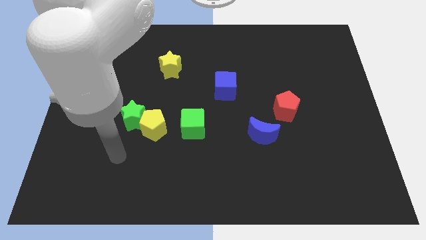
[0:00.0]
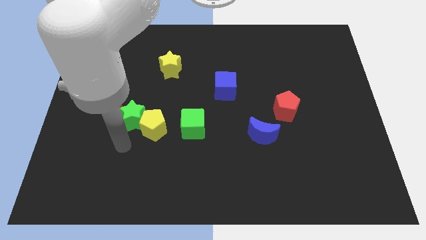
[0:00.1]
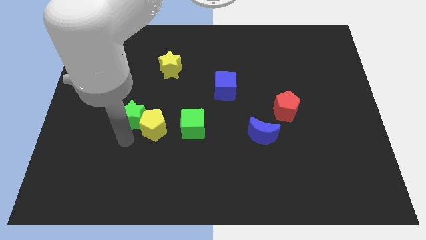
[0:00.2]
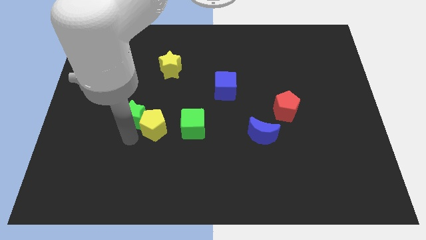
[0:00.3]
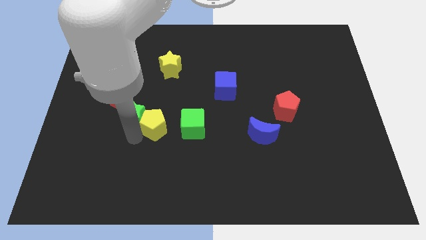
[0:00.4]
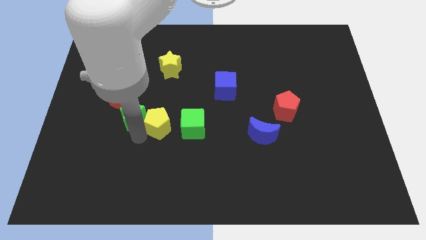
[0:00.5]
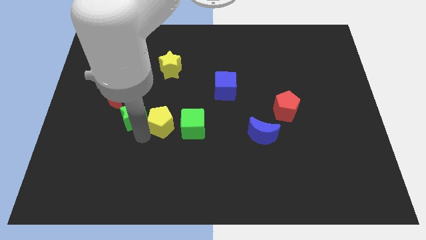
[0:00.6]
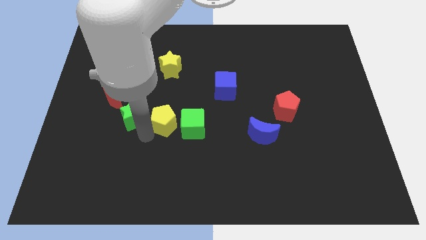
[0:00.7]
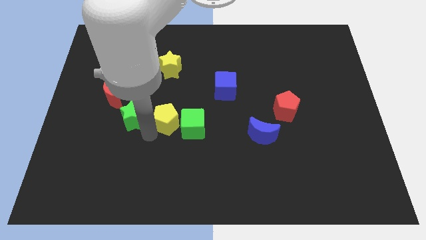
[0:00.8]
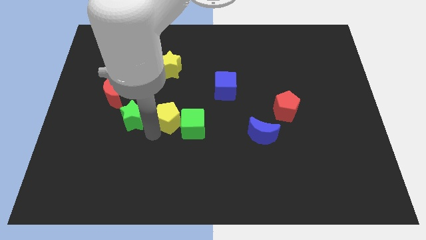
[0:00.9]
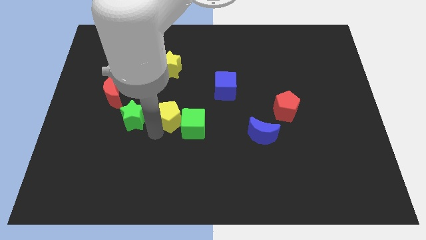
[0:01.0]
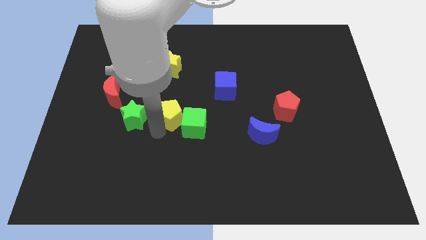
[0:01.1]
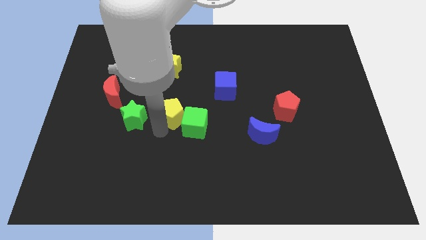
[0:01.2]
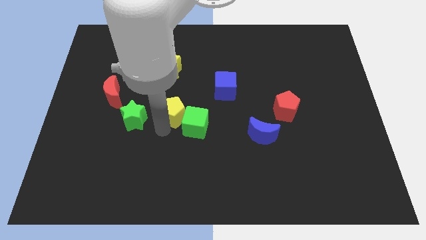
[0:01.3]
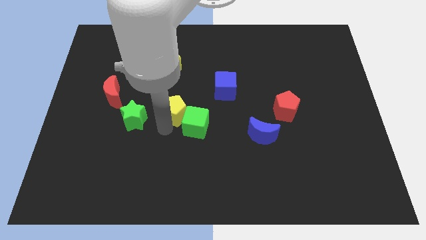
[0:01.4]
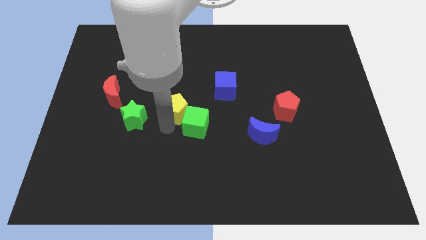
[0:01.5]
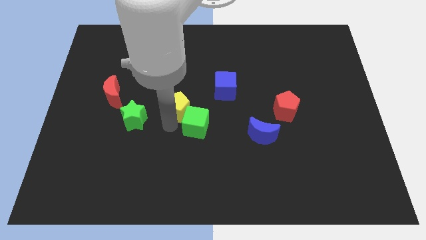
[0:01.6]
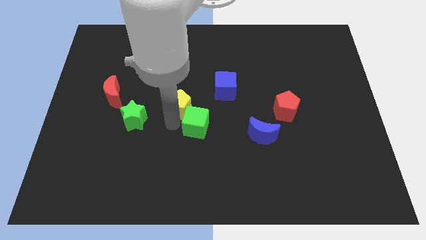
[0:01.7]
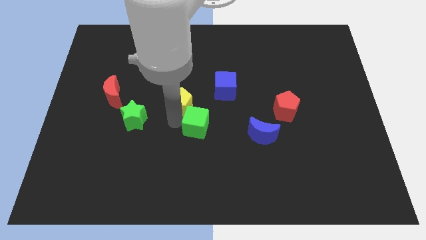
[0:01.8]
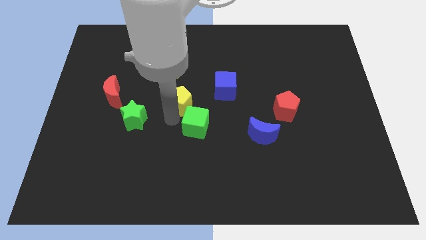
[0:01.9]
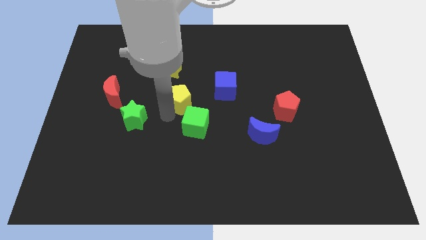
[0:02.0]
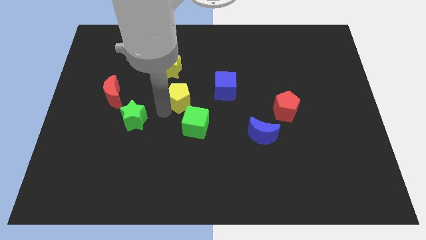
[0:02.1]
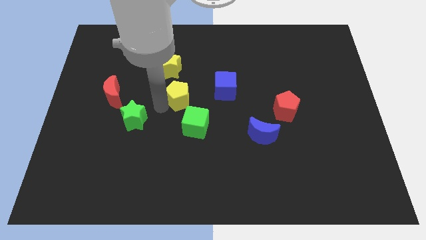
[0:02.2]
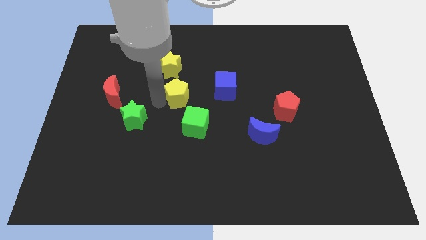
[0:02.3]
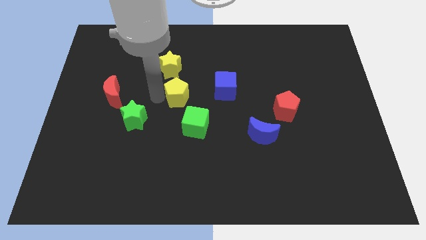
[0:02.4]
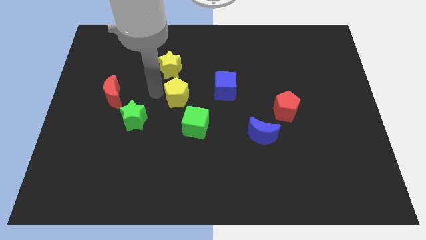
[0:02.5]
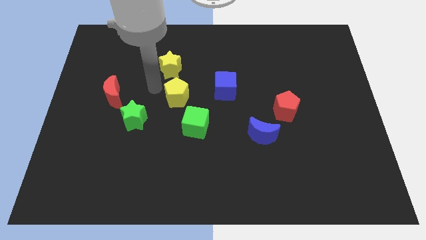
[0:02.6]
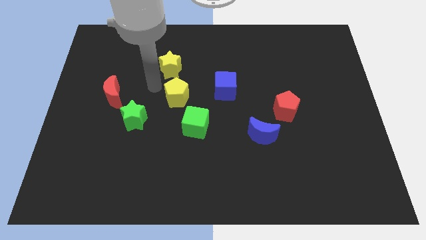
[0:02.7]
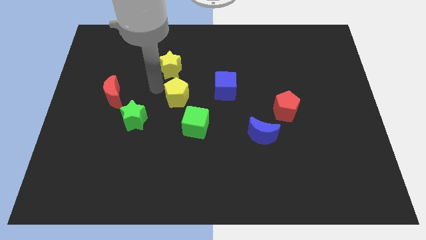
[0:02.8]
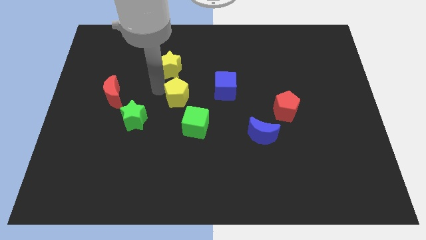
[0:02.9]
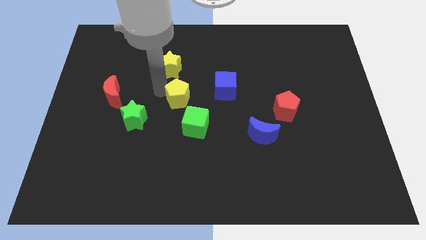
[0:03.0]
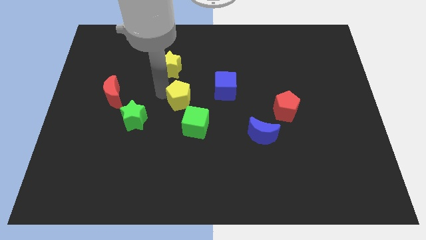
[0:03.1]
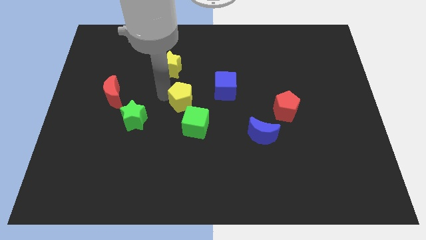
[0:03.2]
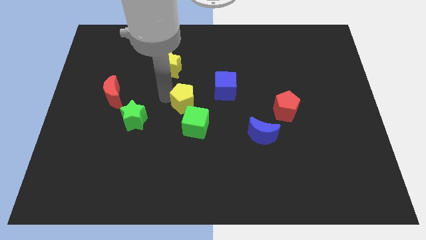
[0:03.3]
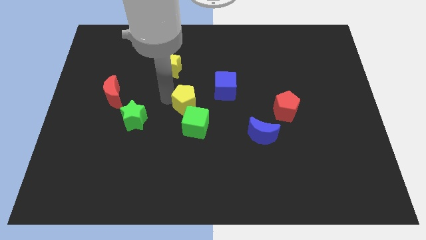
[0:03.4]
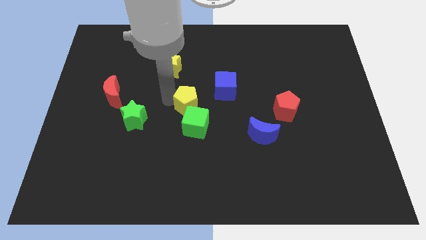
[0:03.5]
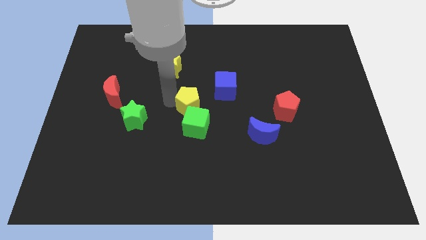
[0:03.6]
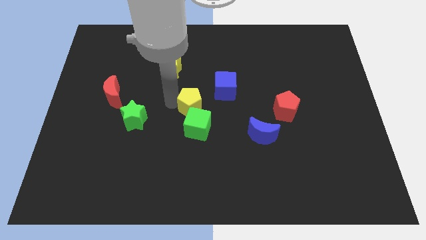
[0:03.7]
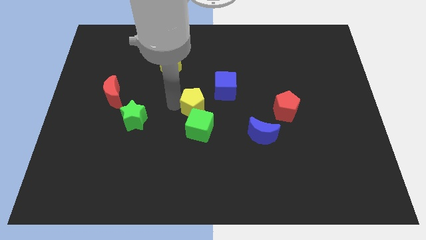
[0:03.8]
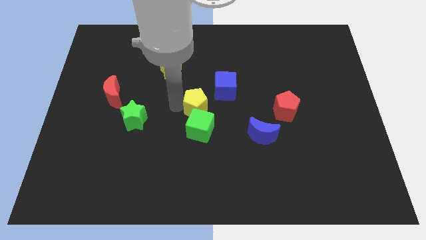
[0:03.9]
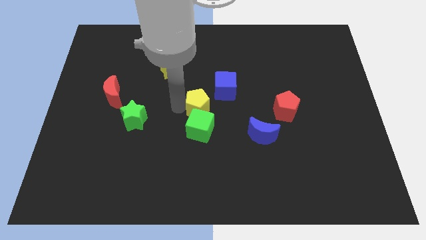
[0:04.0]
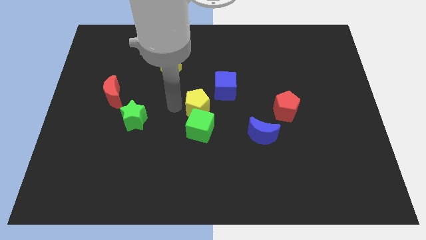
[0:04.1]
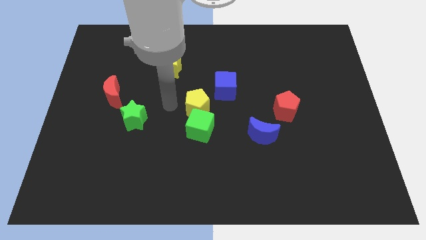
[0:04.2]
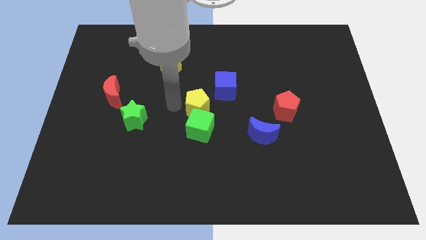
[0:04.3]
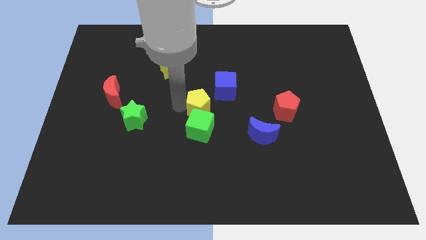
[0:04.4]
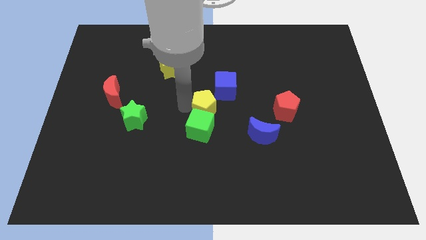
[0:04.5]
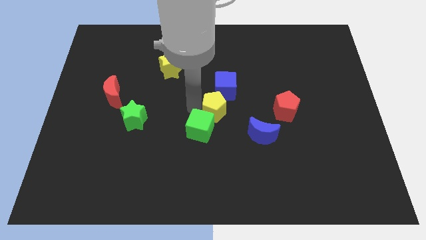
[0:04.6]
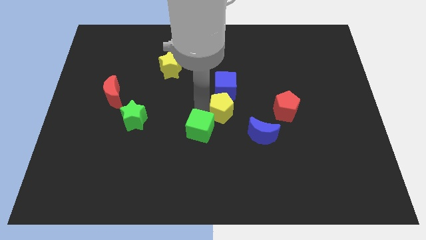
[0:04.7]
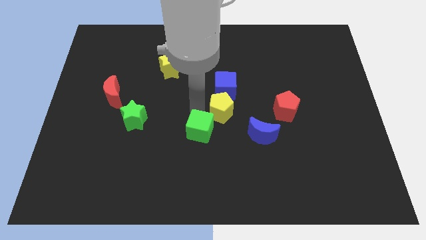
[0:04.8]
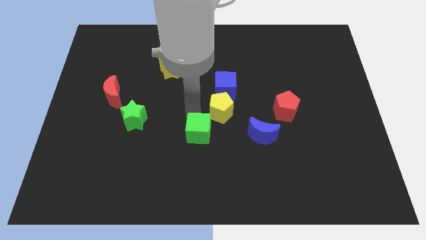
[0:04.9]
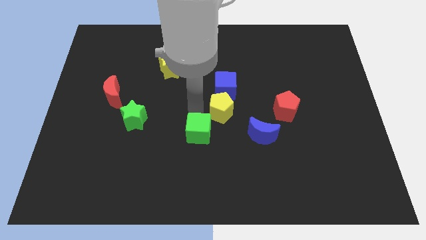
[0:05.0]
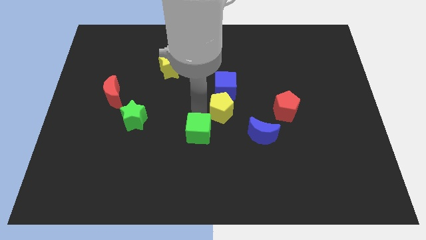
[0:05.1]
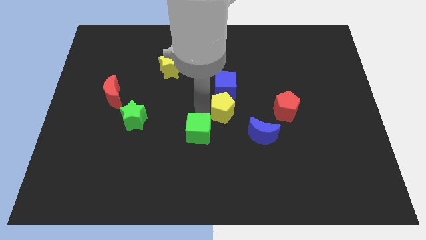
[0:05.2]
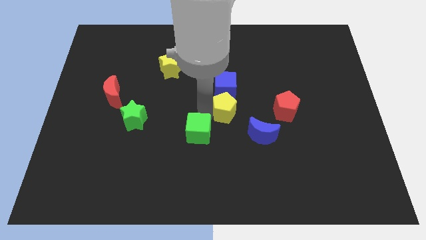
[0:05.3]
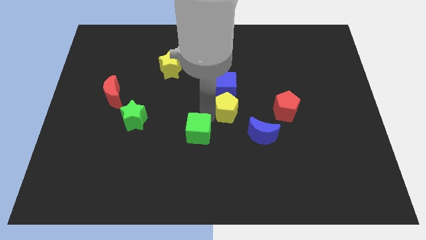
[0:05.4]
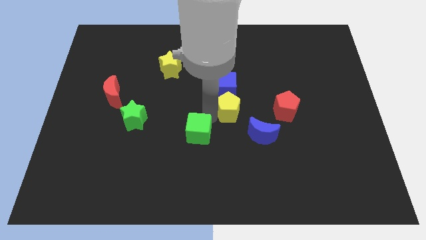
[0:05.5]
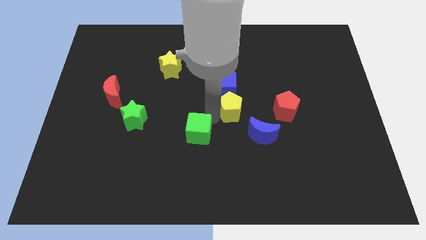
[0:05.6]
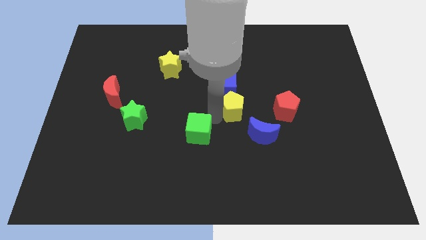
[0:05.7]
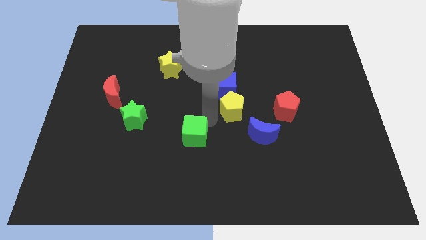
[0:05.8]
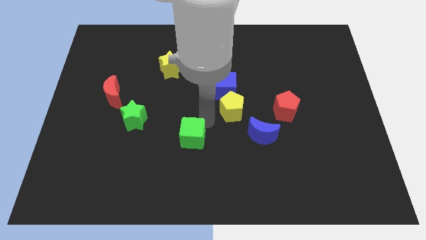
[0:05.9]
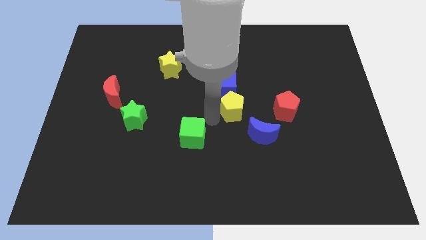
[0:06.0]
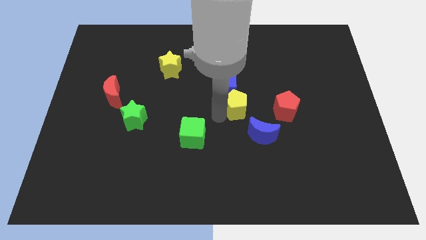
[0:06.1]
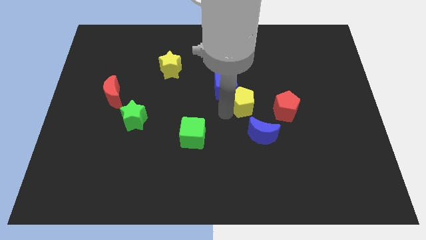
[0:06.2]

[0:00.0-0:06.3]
put the yellow pentagon to the top side of the blue moon
